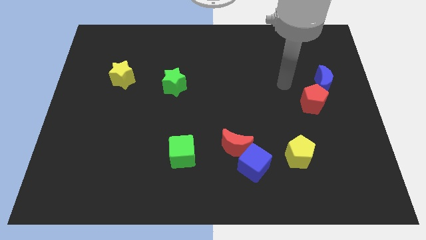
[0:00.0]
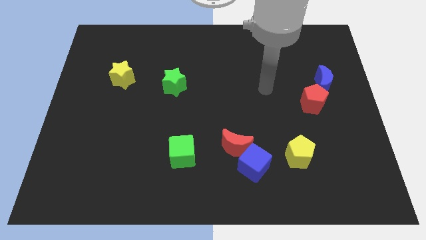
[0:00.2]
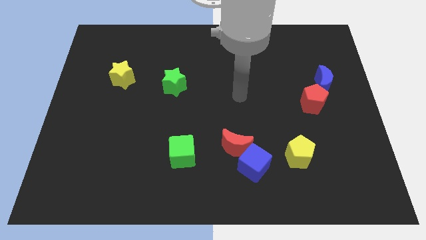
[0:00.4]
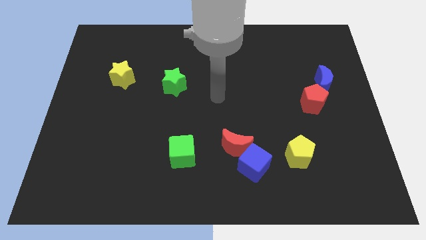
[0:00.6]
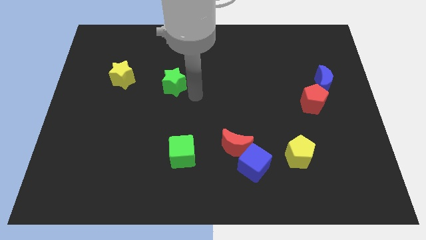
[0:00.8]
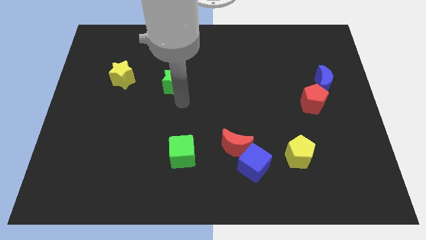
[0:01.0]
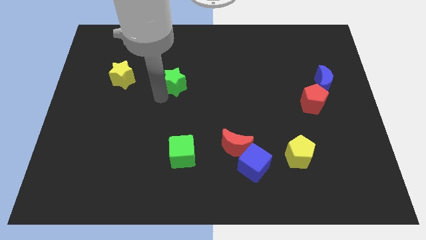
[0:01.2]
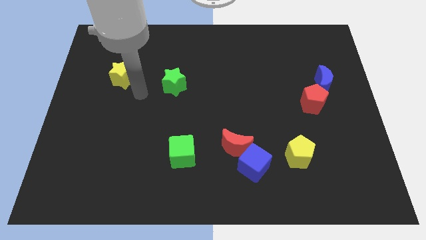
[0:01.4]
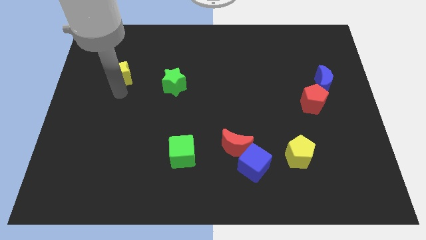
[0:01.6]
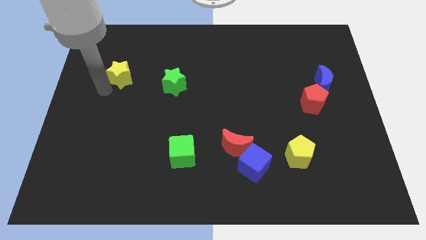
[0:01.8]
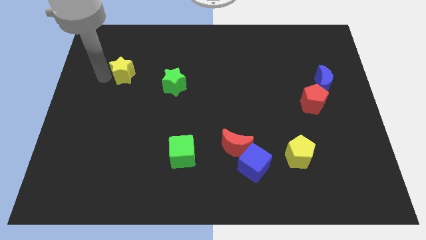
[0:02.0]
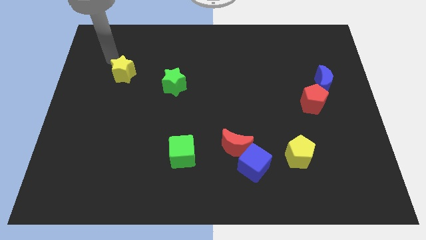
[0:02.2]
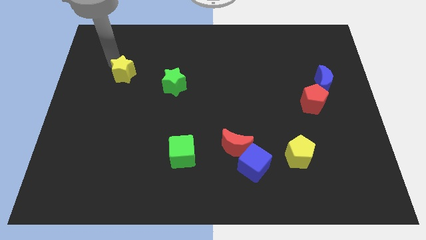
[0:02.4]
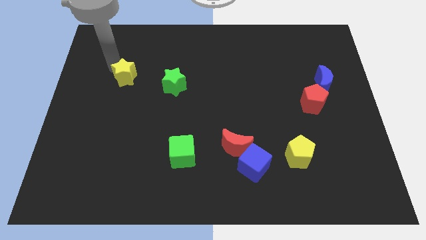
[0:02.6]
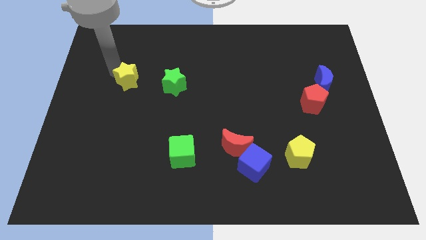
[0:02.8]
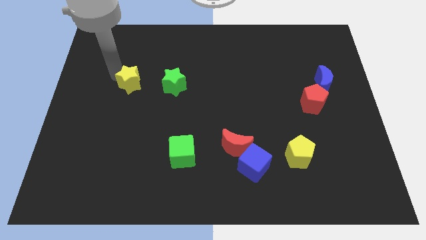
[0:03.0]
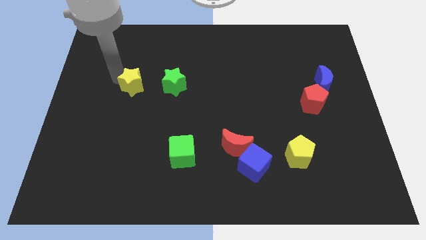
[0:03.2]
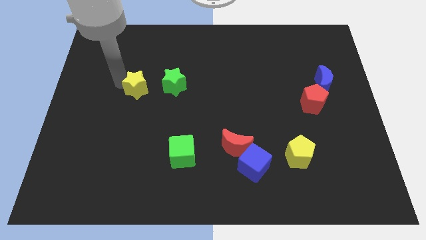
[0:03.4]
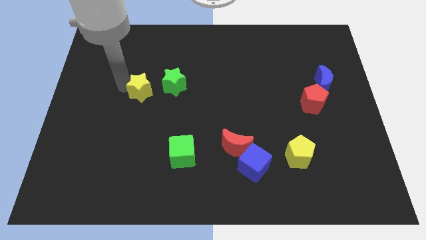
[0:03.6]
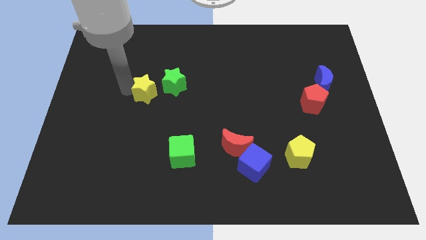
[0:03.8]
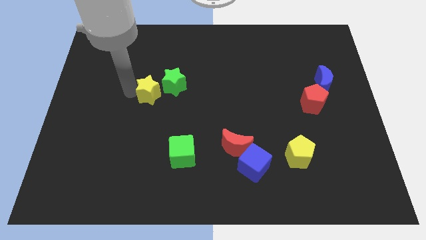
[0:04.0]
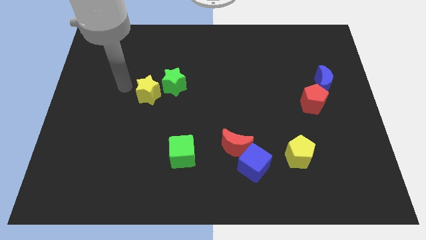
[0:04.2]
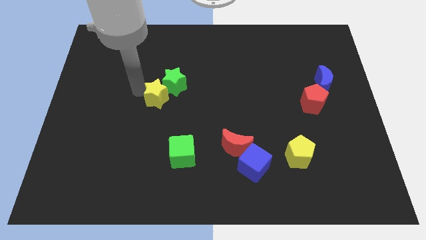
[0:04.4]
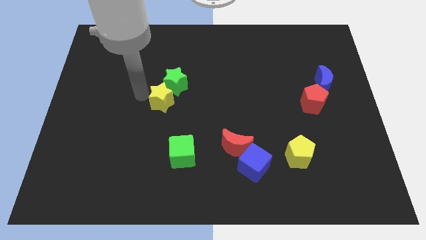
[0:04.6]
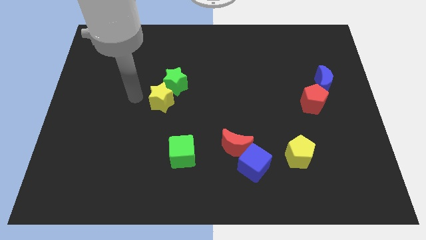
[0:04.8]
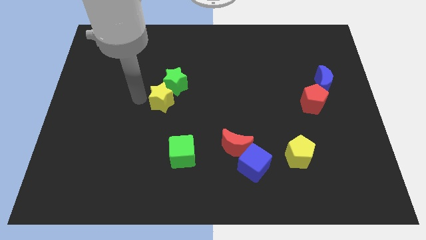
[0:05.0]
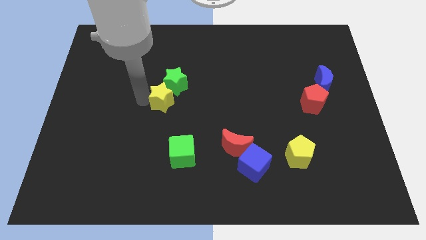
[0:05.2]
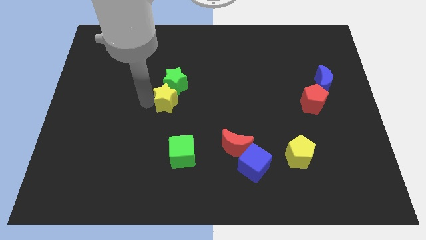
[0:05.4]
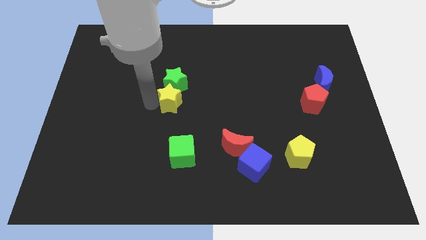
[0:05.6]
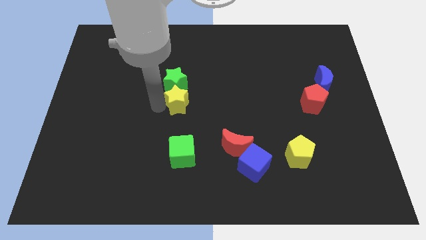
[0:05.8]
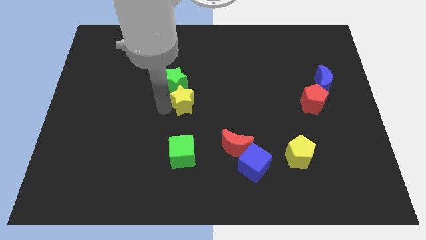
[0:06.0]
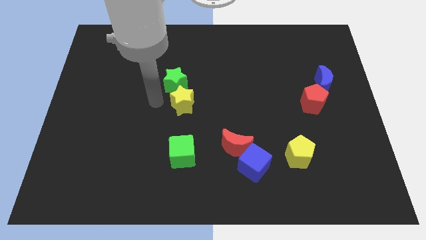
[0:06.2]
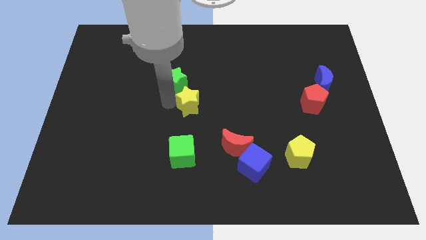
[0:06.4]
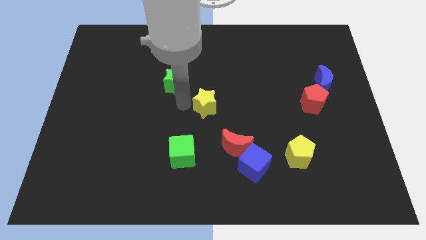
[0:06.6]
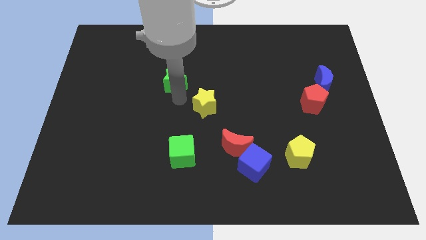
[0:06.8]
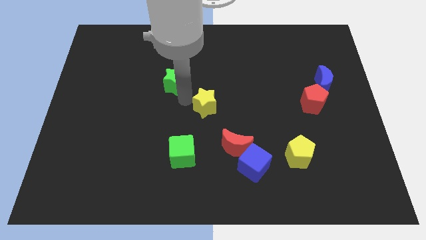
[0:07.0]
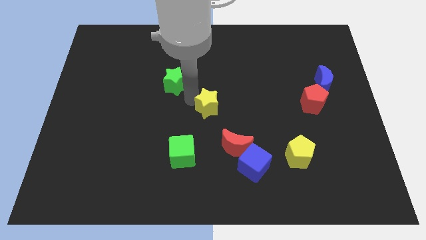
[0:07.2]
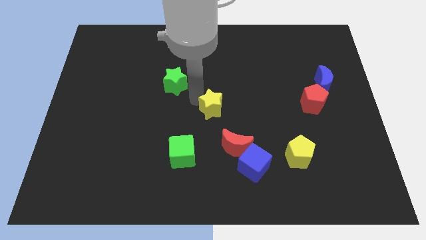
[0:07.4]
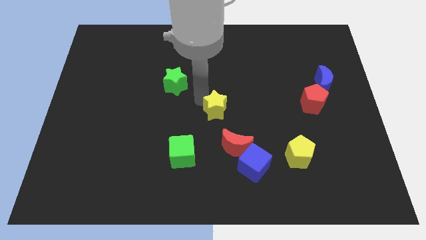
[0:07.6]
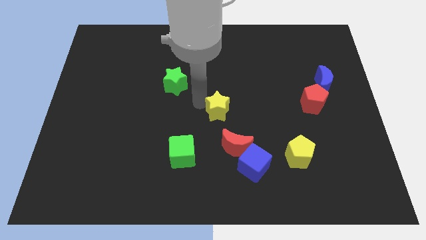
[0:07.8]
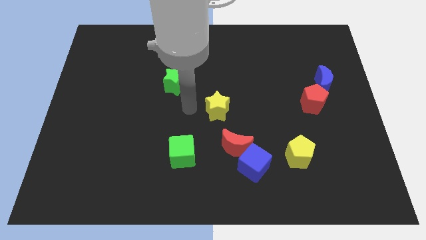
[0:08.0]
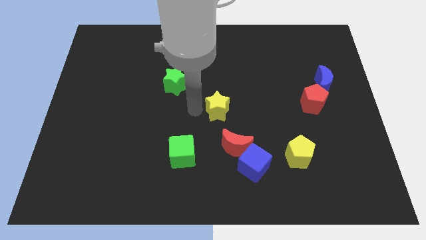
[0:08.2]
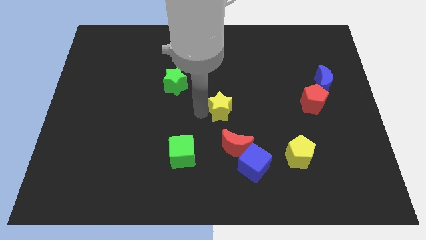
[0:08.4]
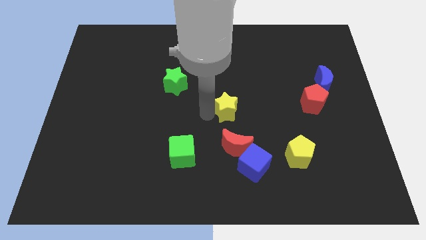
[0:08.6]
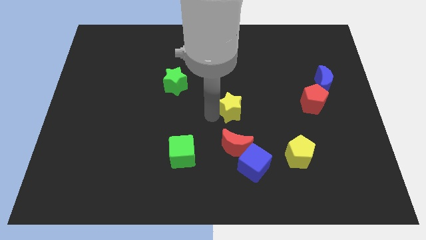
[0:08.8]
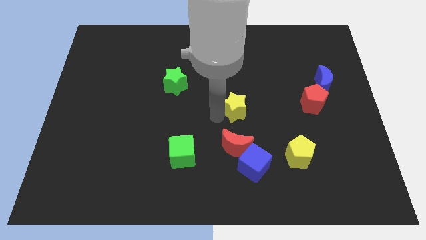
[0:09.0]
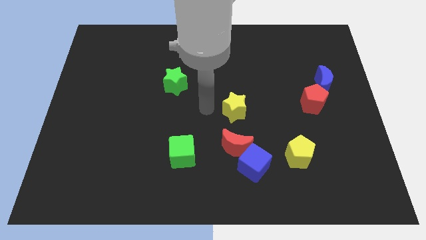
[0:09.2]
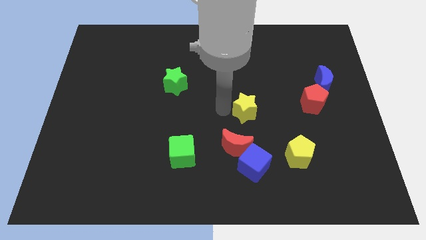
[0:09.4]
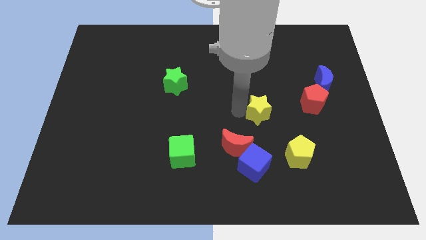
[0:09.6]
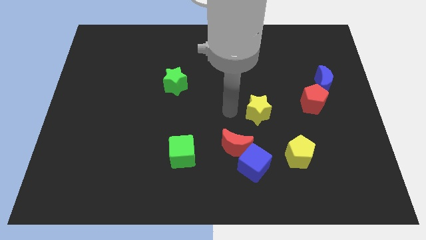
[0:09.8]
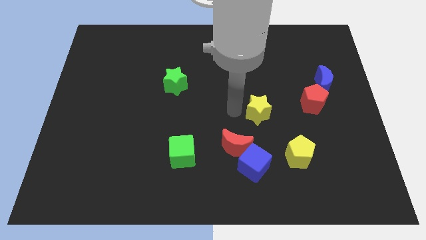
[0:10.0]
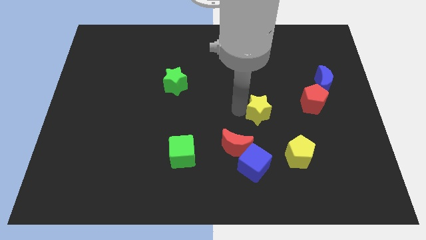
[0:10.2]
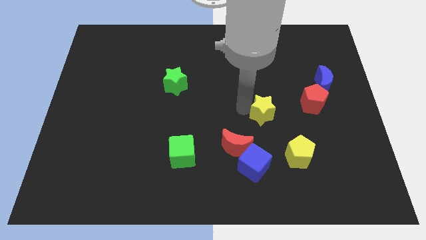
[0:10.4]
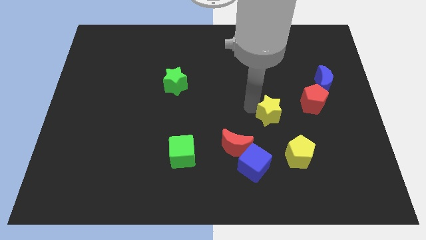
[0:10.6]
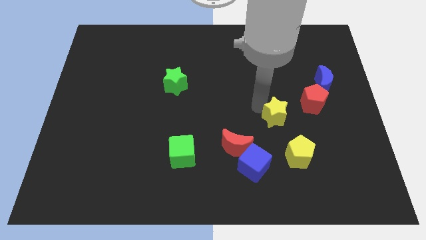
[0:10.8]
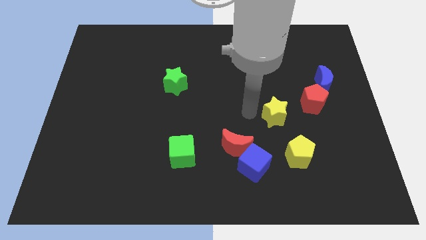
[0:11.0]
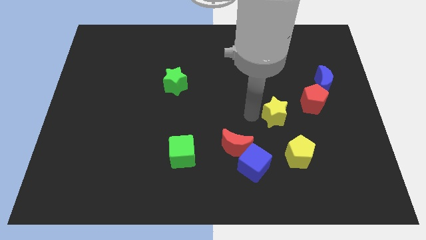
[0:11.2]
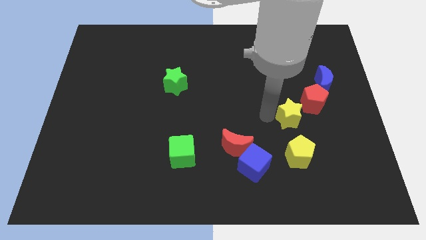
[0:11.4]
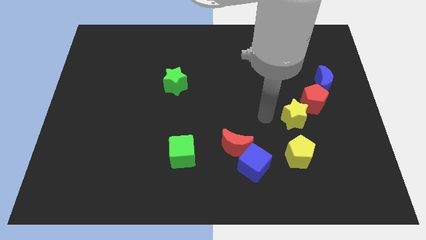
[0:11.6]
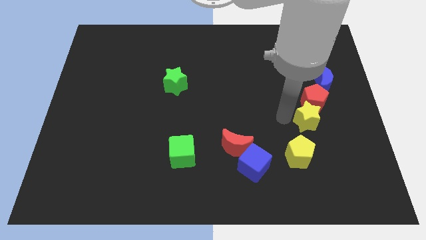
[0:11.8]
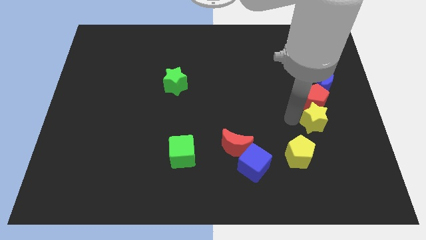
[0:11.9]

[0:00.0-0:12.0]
move the yellow star to the bottom right side of the red pentagon

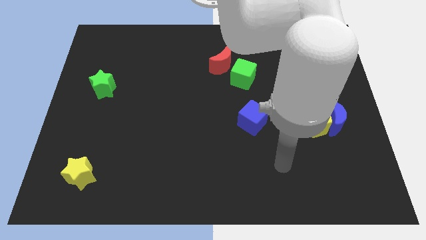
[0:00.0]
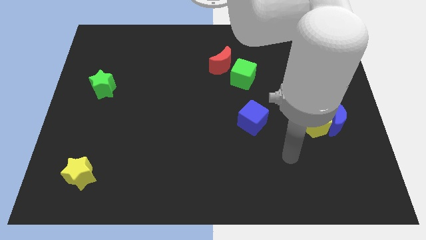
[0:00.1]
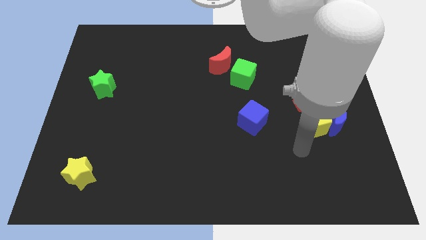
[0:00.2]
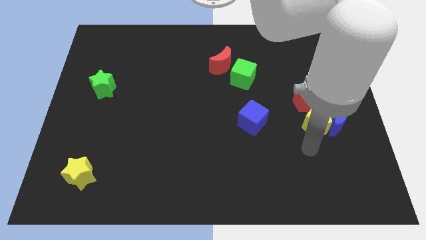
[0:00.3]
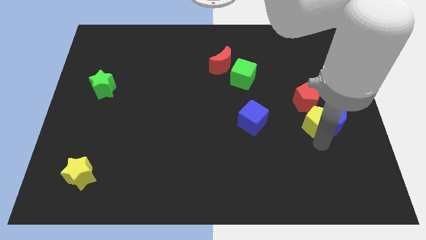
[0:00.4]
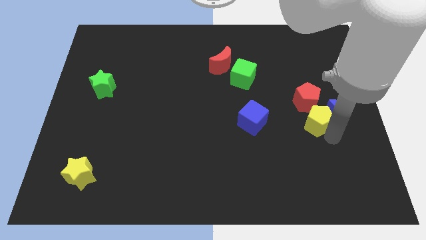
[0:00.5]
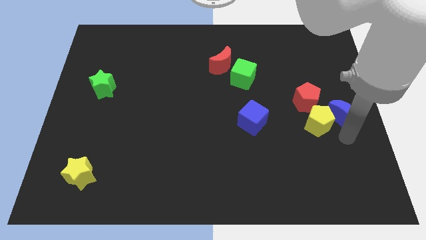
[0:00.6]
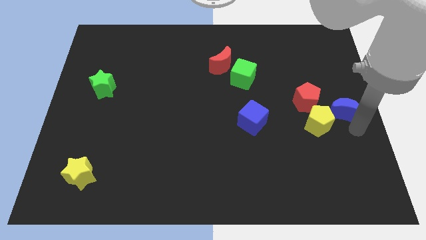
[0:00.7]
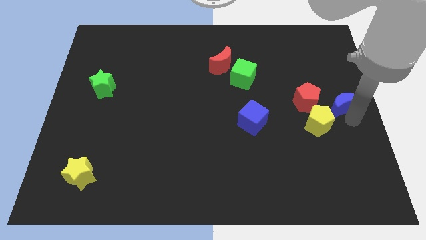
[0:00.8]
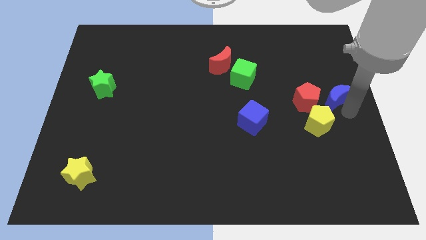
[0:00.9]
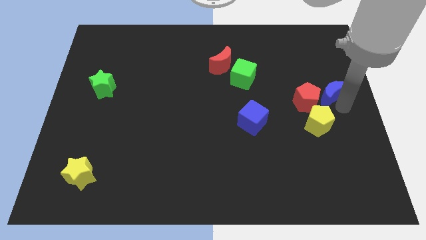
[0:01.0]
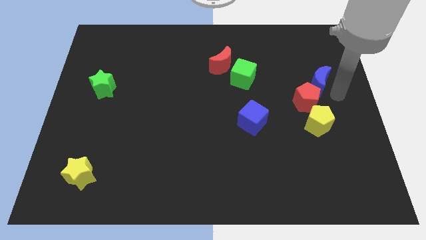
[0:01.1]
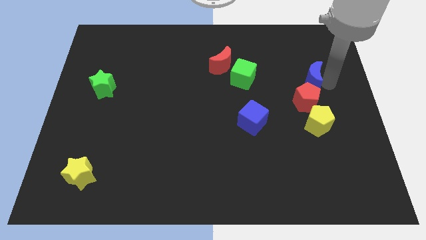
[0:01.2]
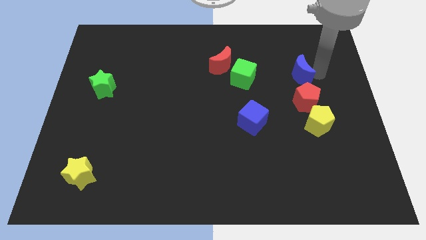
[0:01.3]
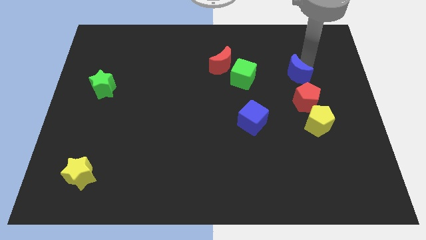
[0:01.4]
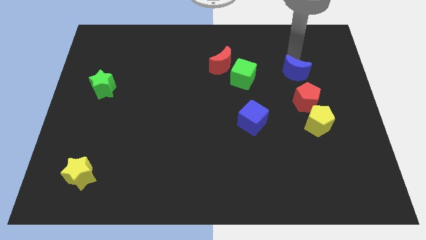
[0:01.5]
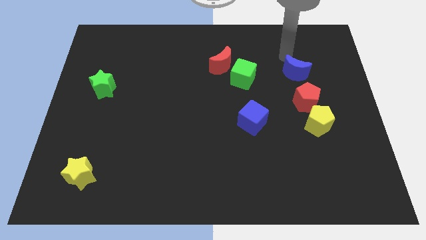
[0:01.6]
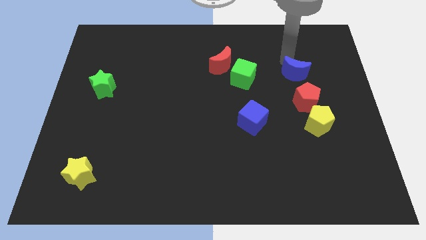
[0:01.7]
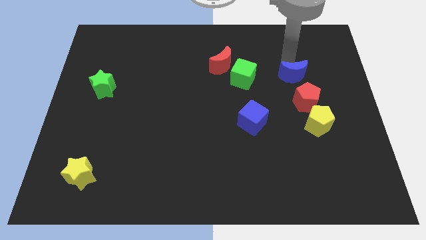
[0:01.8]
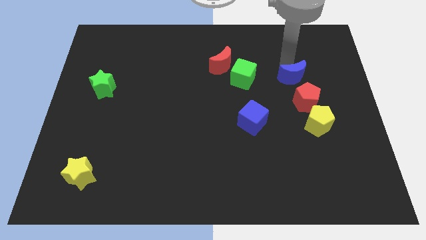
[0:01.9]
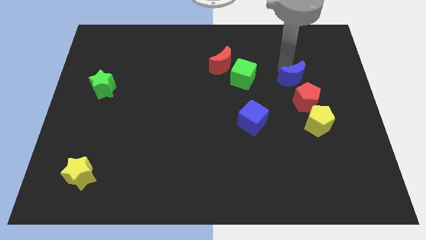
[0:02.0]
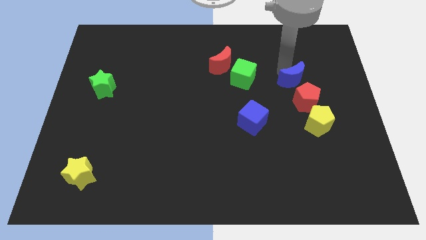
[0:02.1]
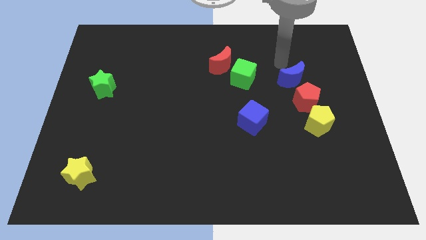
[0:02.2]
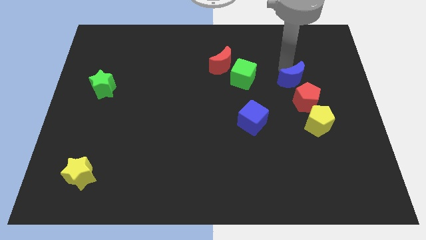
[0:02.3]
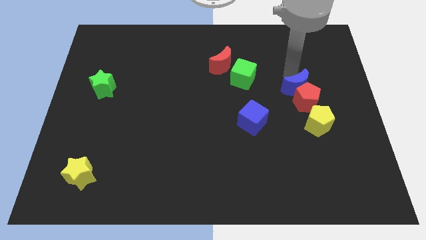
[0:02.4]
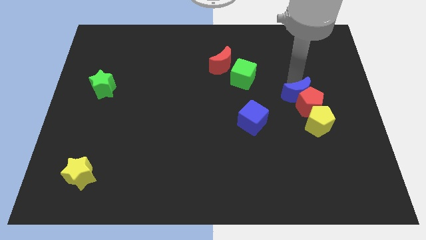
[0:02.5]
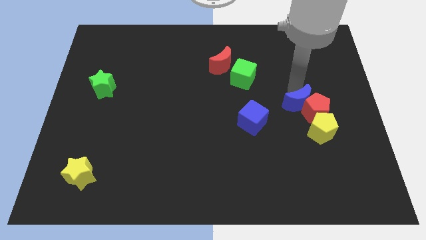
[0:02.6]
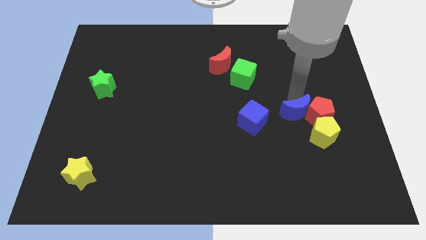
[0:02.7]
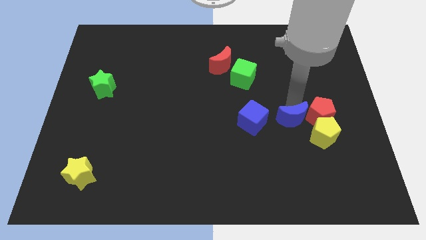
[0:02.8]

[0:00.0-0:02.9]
push the blue moon to the left of the yellow pentagon
